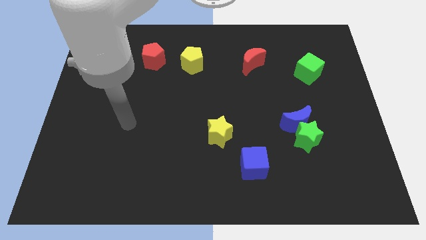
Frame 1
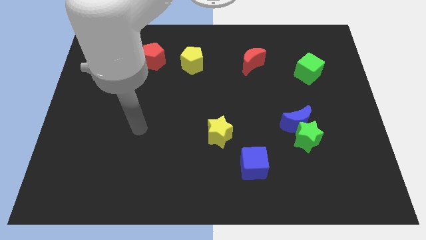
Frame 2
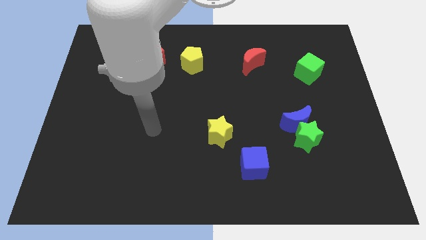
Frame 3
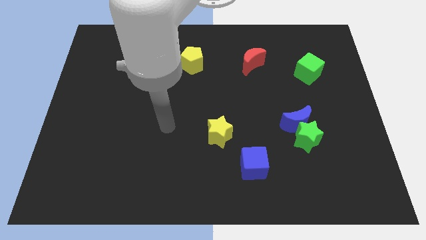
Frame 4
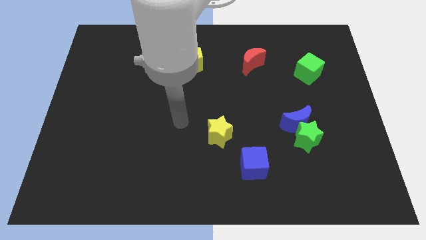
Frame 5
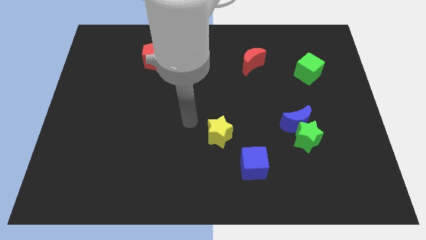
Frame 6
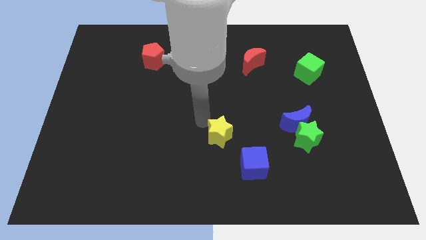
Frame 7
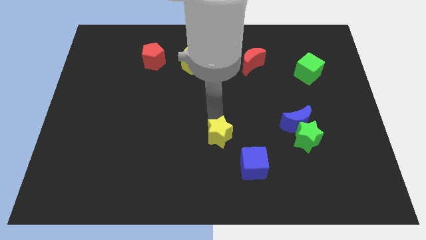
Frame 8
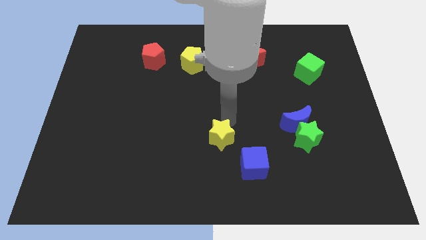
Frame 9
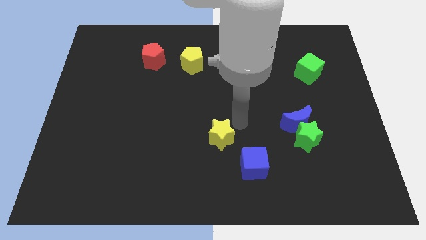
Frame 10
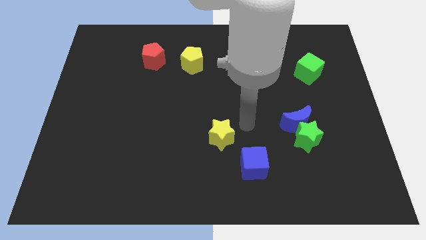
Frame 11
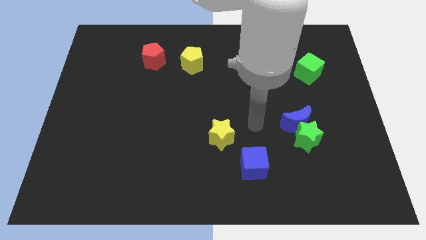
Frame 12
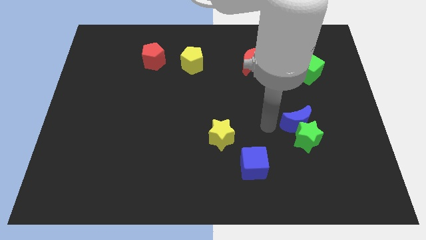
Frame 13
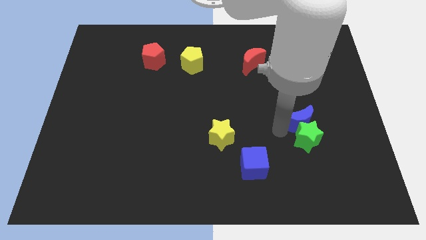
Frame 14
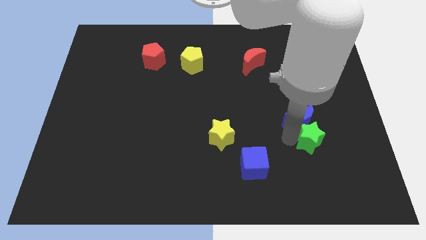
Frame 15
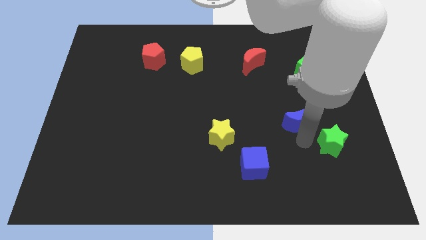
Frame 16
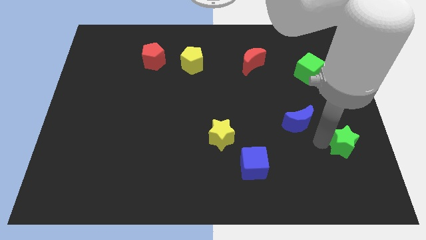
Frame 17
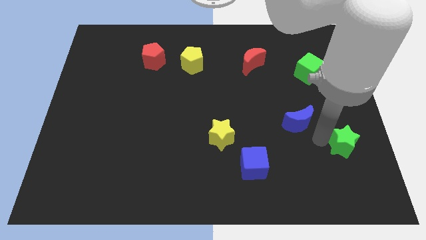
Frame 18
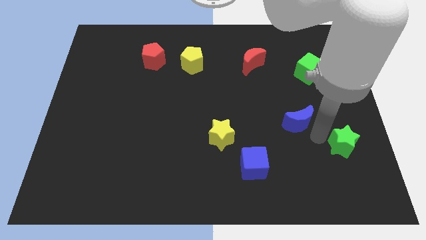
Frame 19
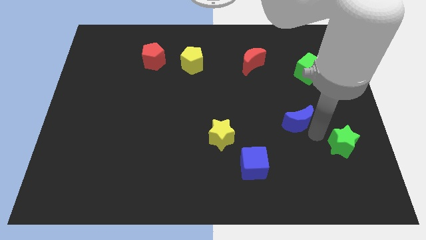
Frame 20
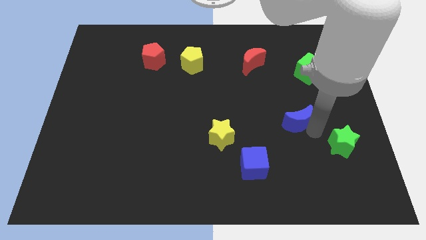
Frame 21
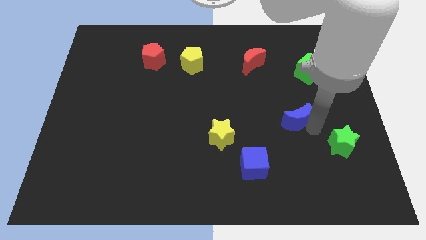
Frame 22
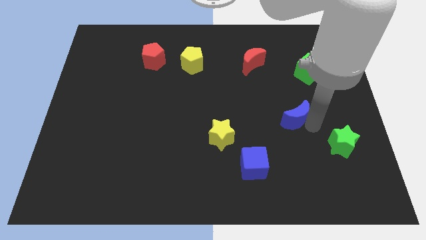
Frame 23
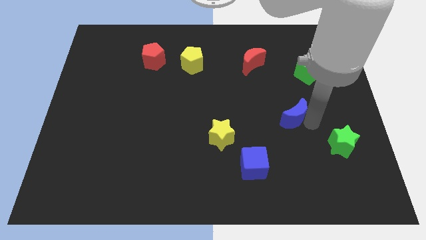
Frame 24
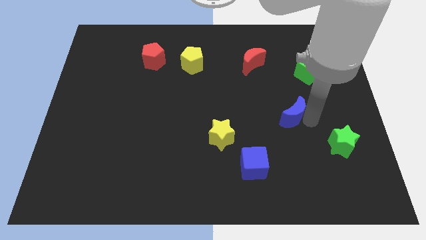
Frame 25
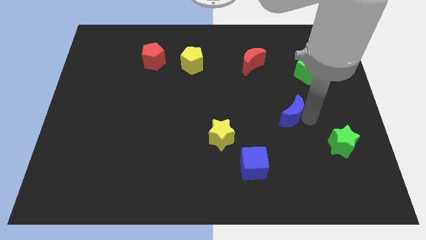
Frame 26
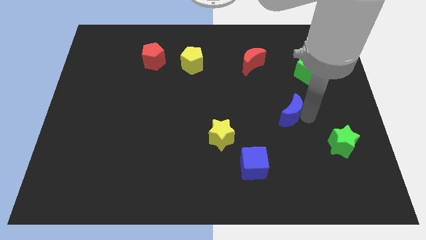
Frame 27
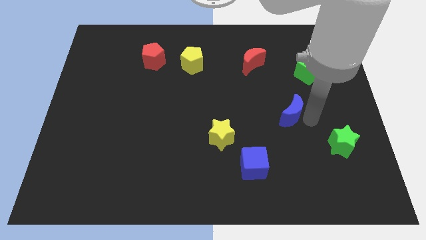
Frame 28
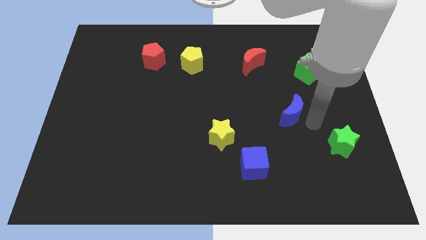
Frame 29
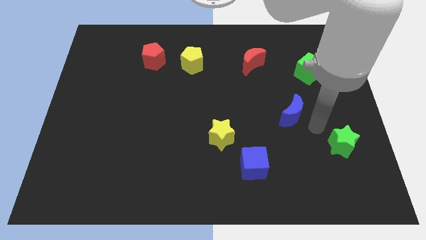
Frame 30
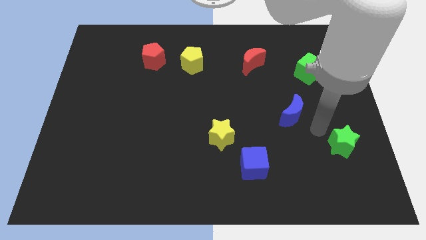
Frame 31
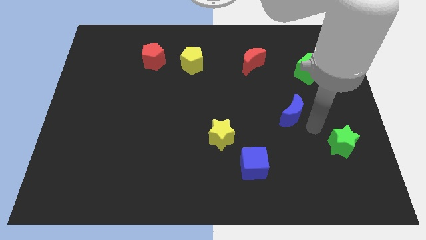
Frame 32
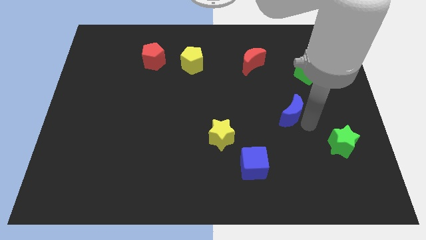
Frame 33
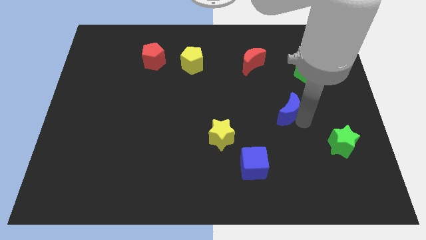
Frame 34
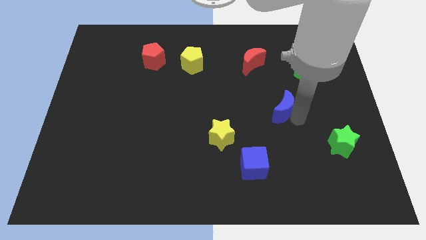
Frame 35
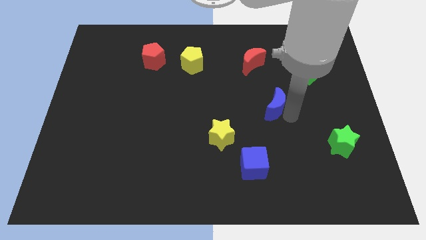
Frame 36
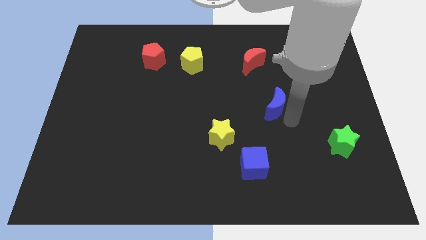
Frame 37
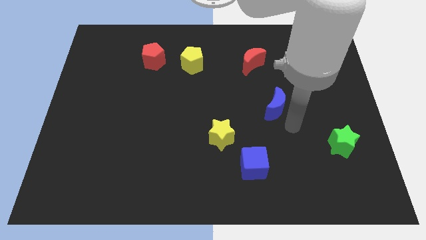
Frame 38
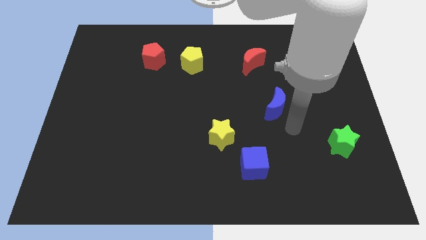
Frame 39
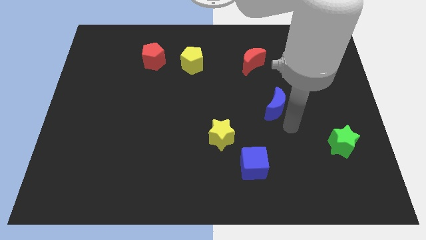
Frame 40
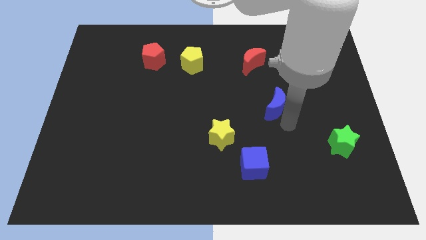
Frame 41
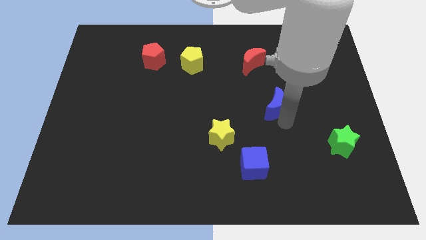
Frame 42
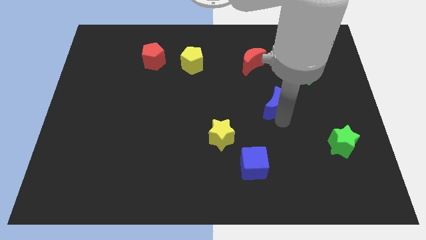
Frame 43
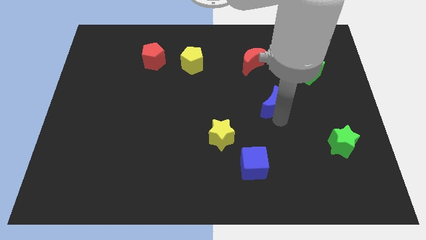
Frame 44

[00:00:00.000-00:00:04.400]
push the blue moon up and left diagonally a little

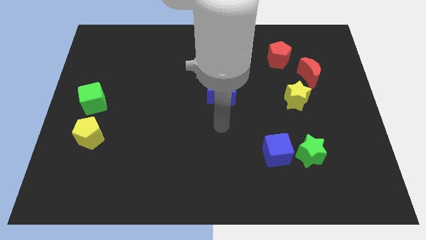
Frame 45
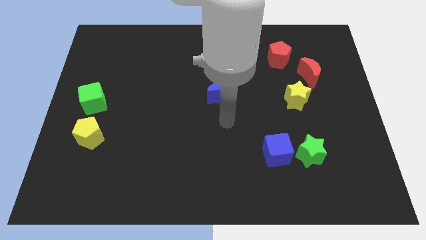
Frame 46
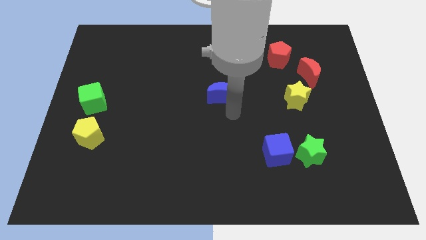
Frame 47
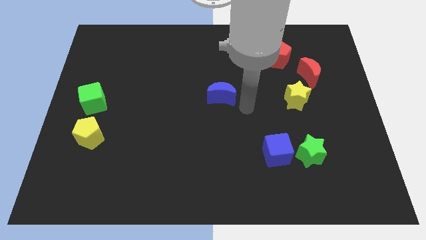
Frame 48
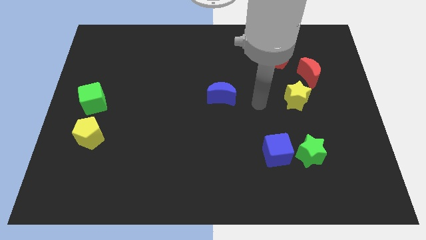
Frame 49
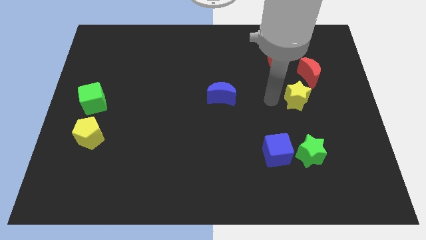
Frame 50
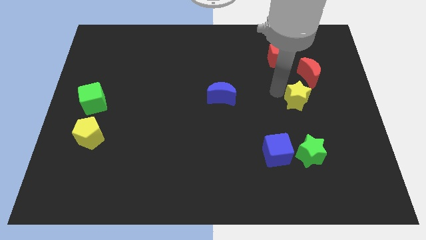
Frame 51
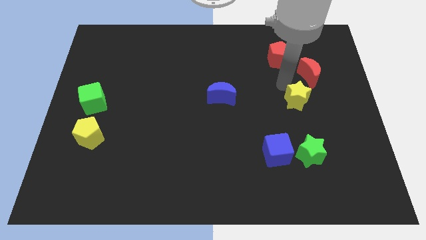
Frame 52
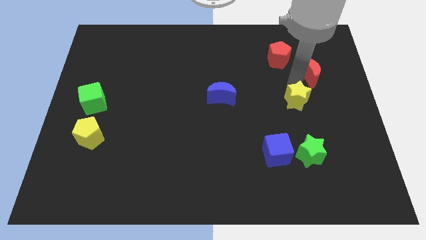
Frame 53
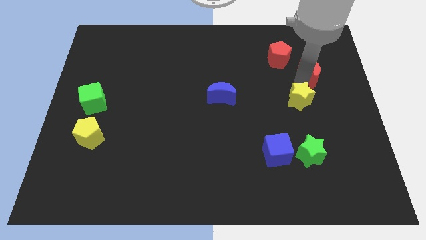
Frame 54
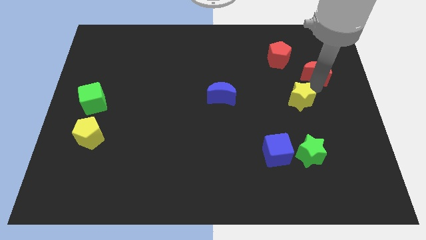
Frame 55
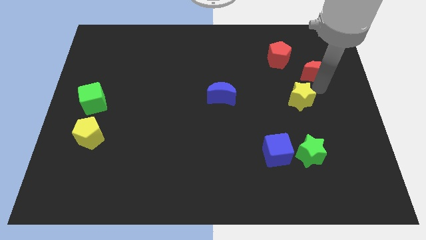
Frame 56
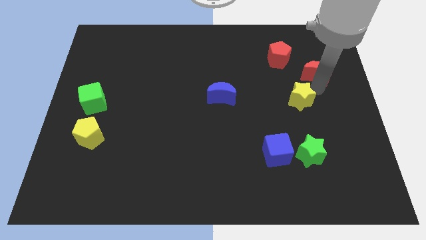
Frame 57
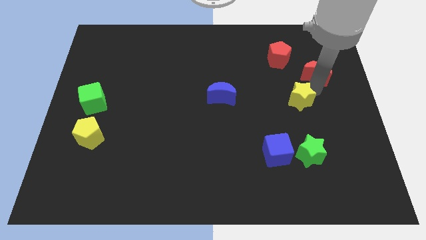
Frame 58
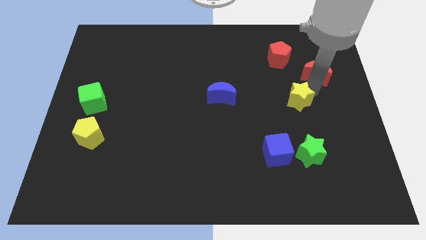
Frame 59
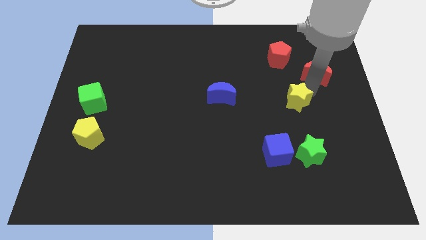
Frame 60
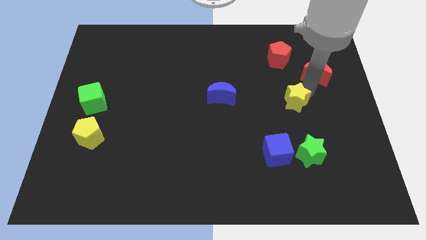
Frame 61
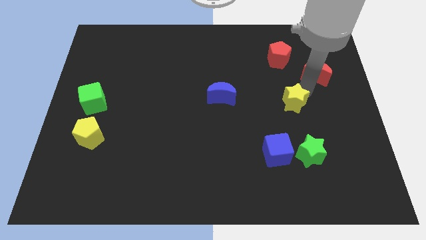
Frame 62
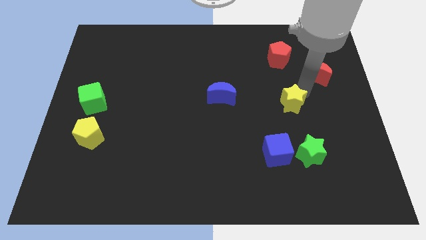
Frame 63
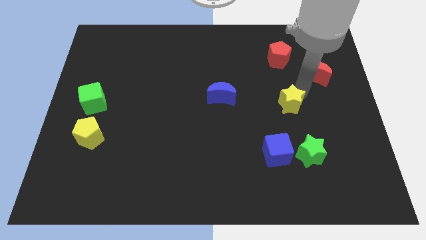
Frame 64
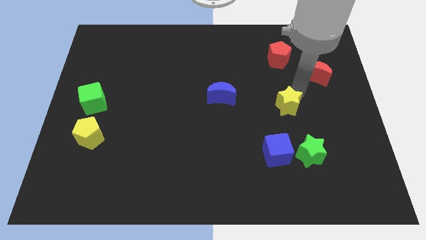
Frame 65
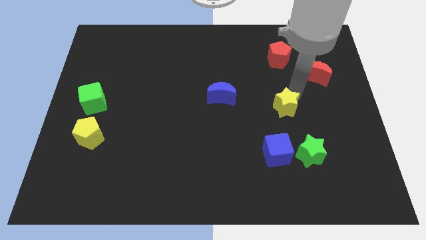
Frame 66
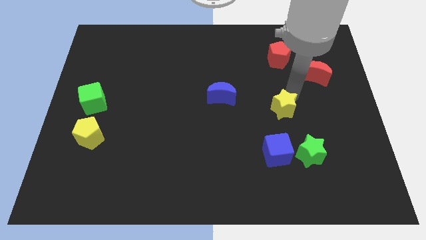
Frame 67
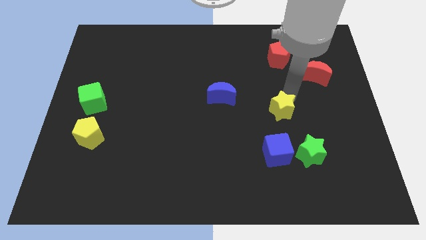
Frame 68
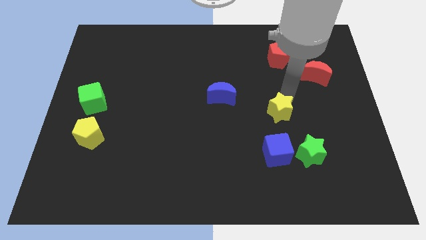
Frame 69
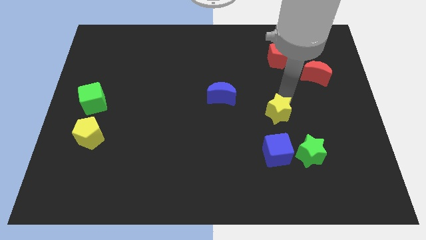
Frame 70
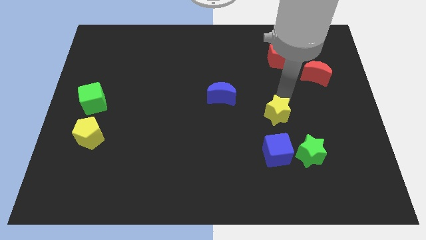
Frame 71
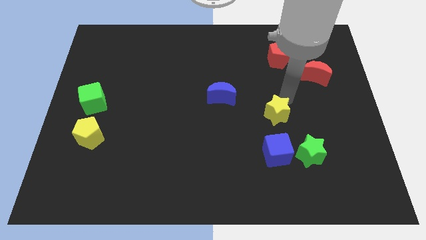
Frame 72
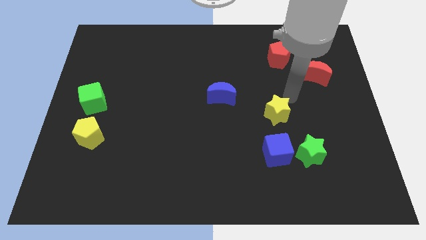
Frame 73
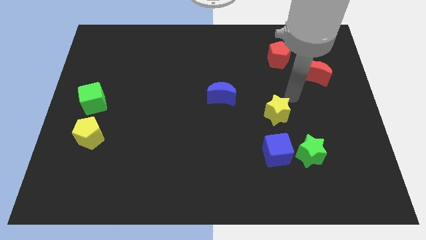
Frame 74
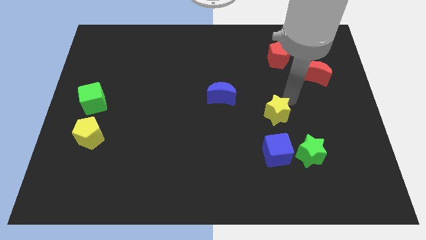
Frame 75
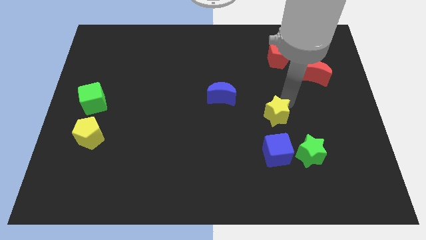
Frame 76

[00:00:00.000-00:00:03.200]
slightly move the yellow star downwards and then to the left

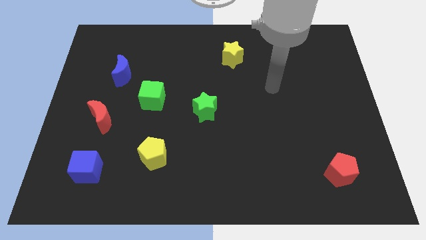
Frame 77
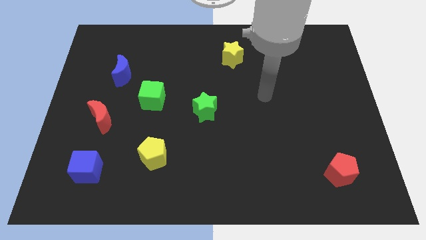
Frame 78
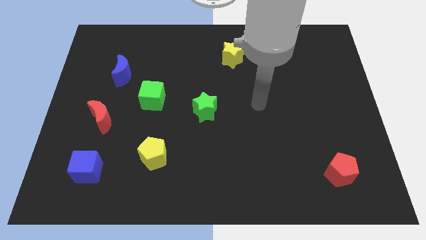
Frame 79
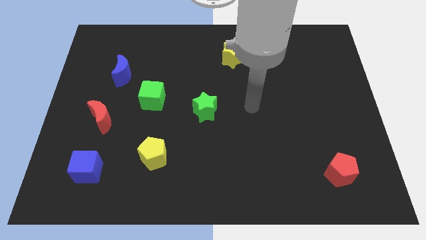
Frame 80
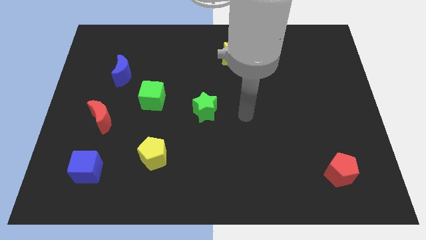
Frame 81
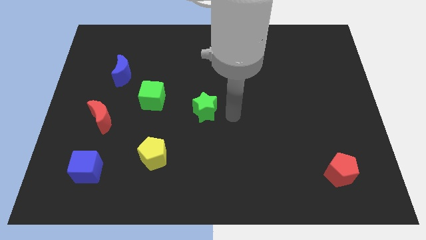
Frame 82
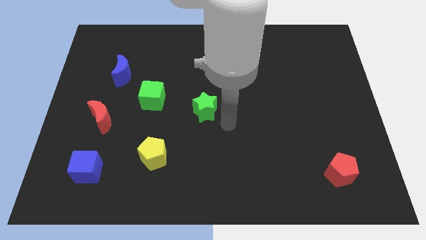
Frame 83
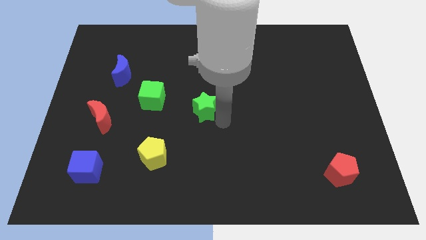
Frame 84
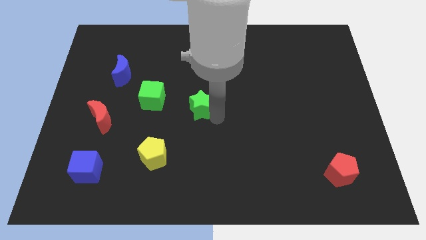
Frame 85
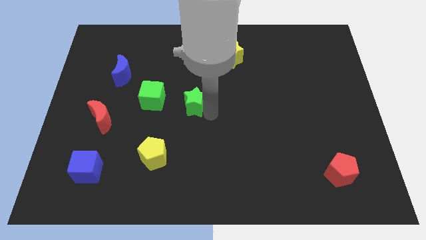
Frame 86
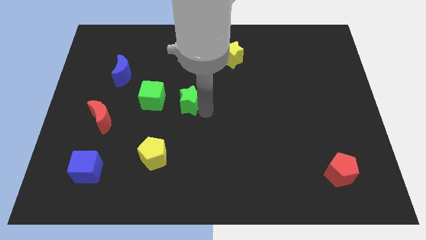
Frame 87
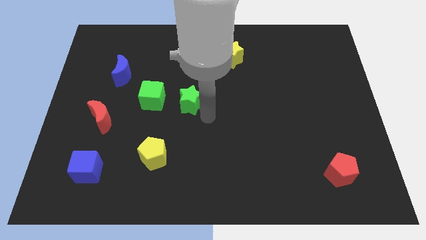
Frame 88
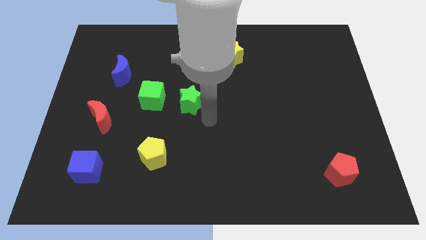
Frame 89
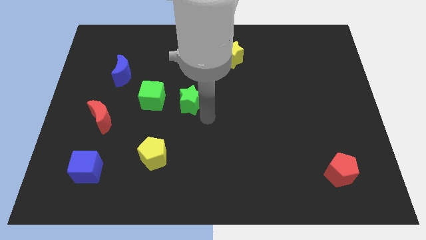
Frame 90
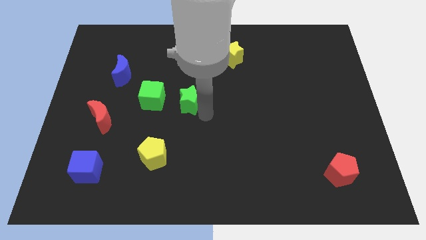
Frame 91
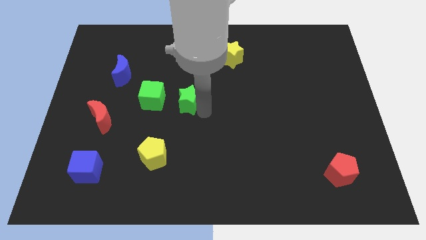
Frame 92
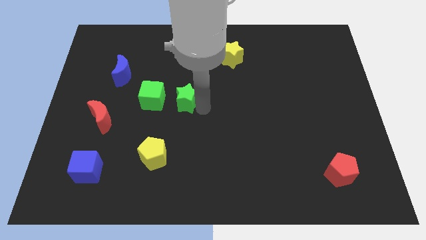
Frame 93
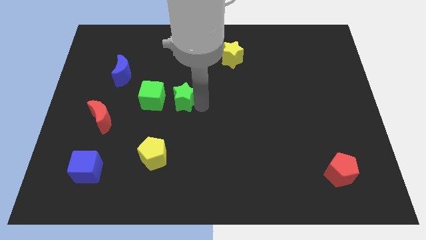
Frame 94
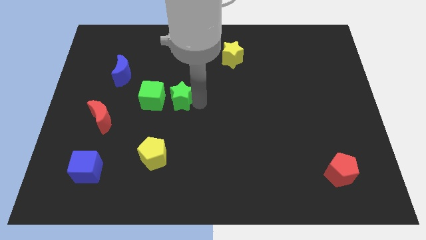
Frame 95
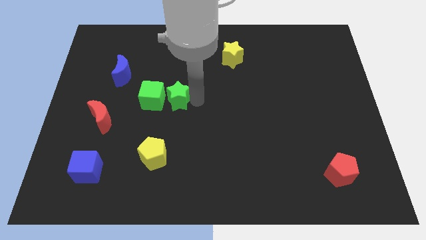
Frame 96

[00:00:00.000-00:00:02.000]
slide the green star upwards and left slightly
